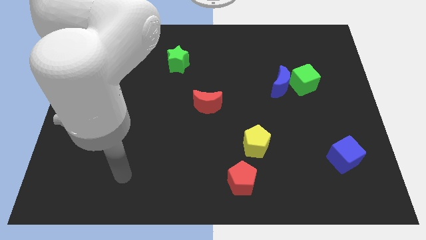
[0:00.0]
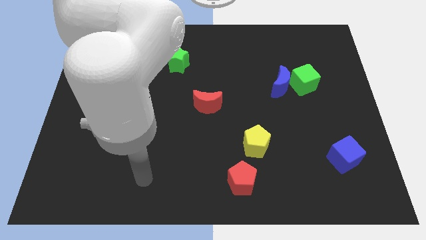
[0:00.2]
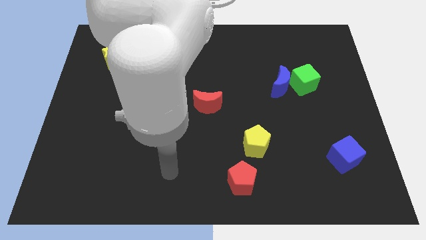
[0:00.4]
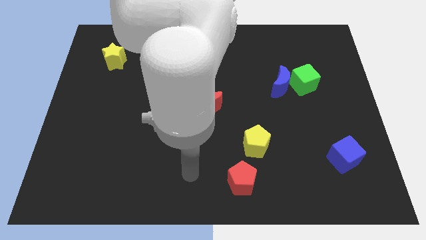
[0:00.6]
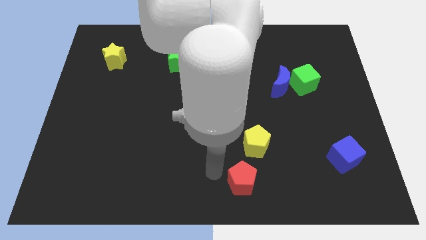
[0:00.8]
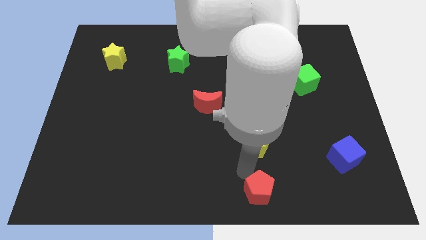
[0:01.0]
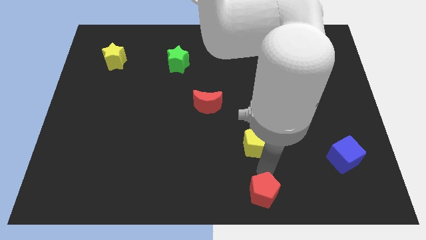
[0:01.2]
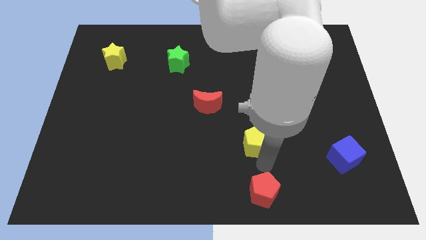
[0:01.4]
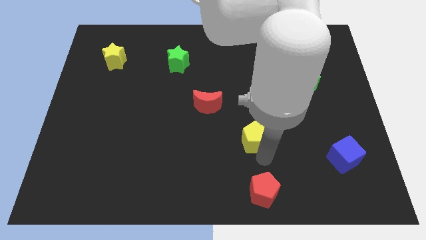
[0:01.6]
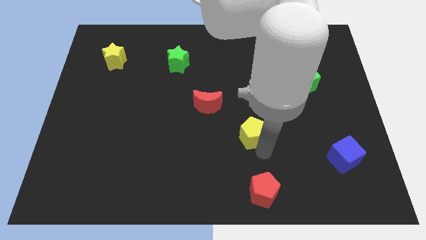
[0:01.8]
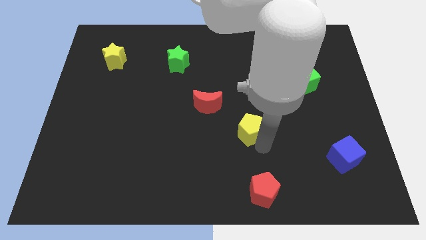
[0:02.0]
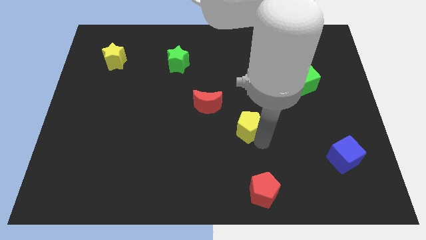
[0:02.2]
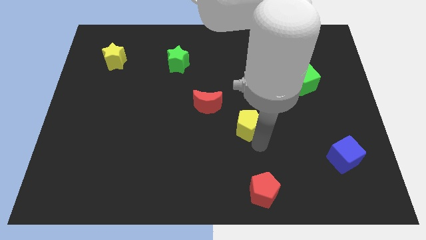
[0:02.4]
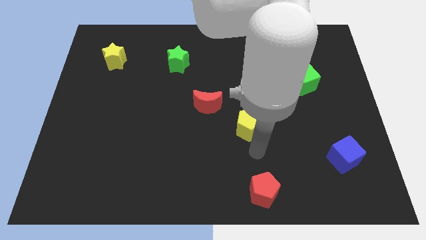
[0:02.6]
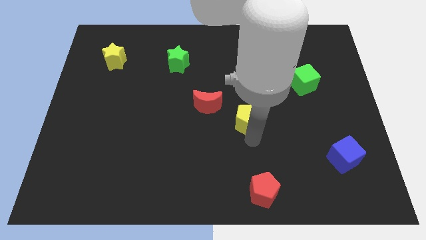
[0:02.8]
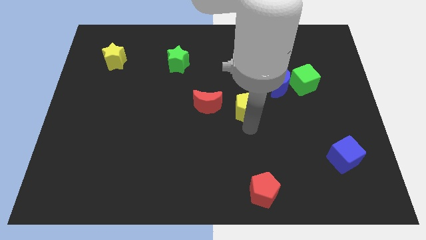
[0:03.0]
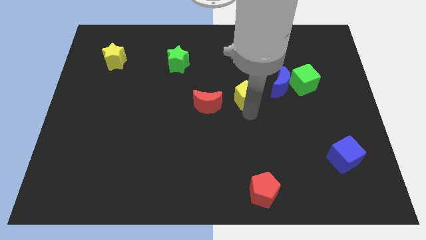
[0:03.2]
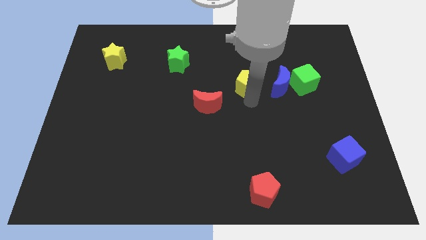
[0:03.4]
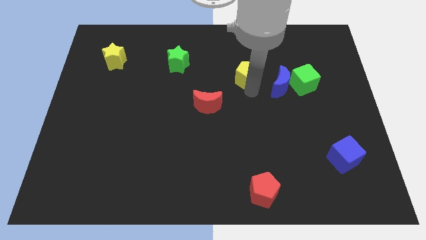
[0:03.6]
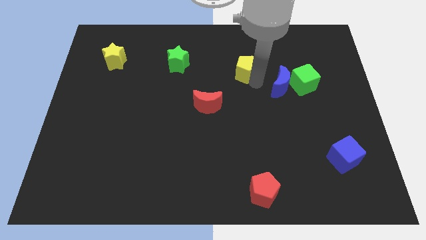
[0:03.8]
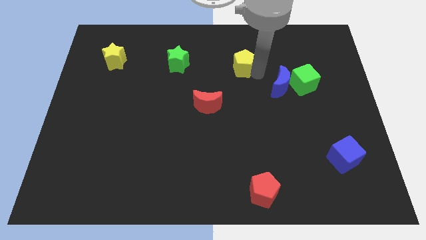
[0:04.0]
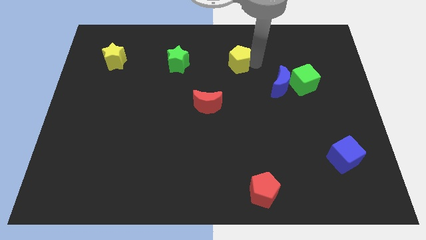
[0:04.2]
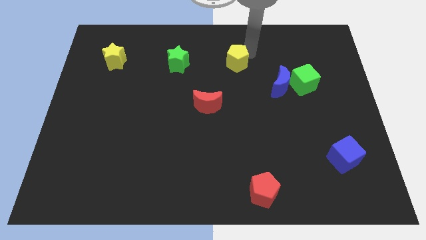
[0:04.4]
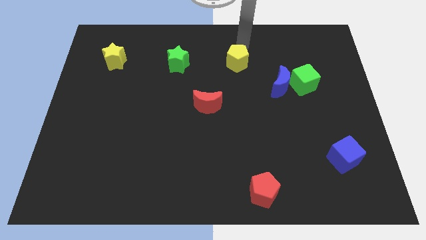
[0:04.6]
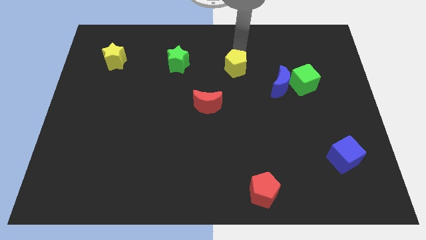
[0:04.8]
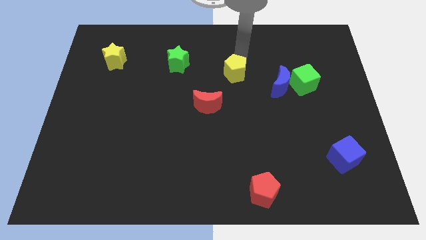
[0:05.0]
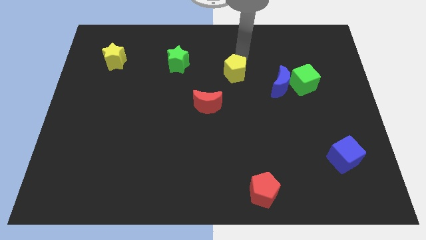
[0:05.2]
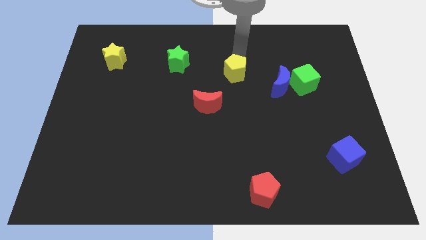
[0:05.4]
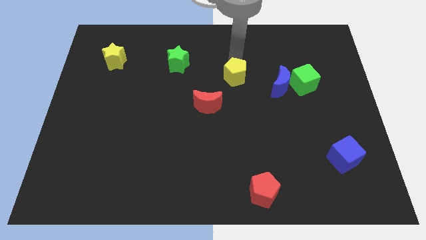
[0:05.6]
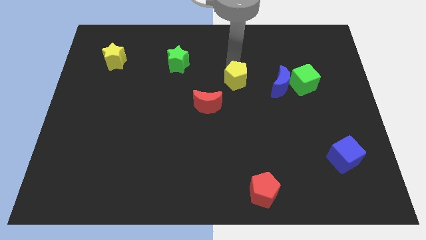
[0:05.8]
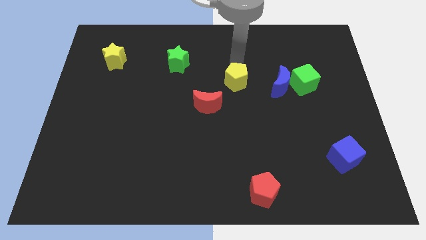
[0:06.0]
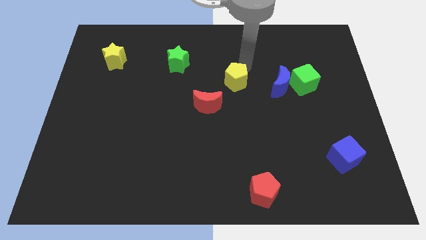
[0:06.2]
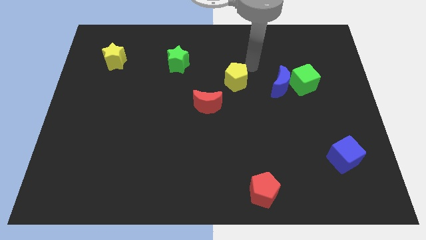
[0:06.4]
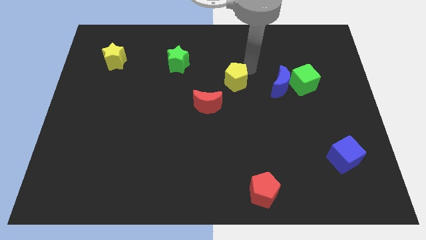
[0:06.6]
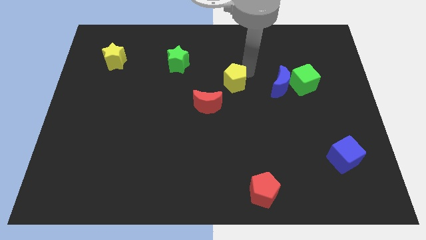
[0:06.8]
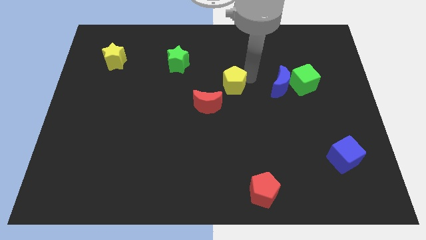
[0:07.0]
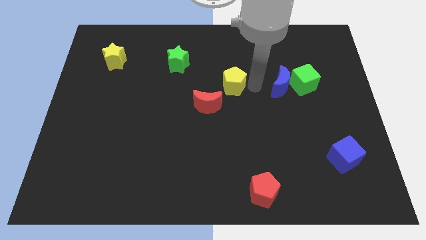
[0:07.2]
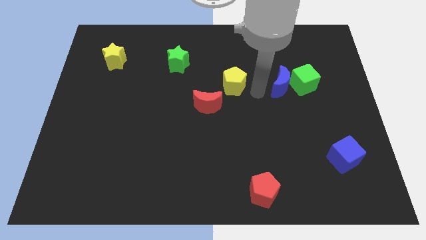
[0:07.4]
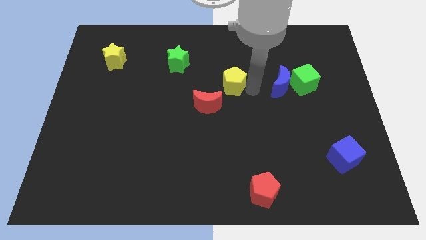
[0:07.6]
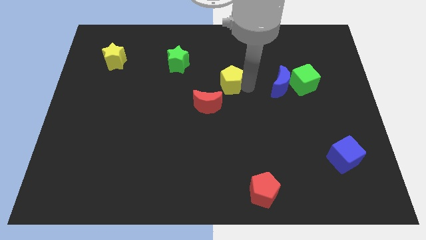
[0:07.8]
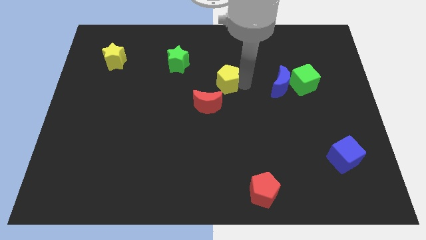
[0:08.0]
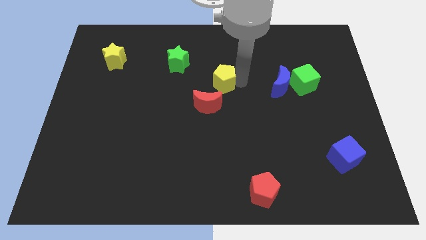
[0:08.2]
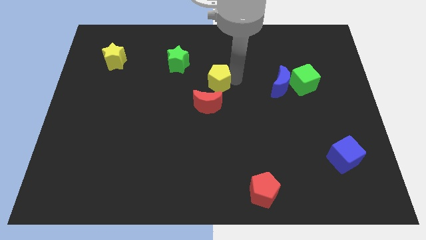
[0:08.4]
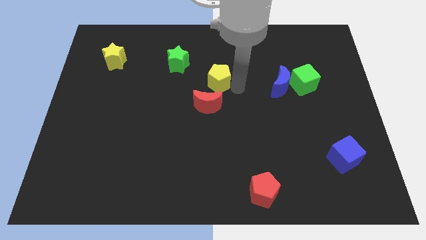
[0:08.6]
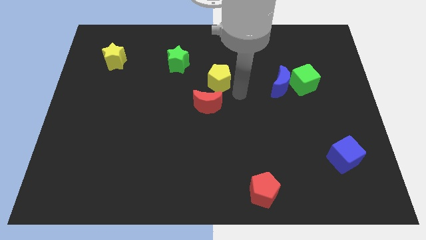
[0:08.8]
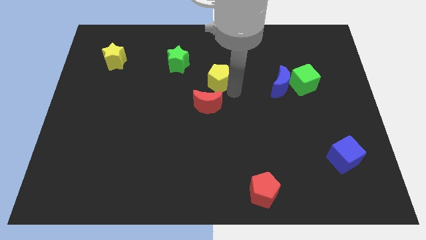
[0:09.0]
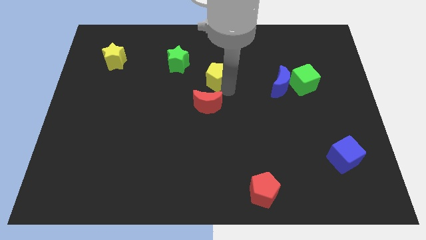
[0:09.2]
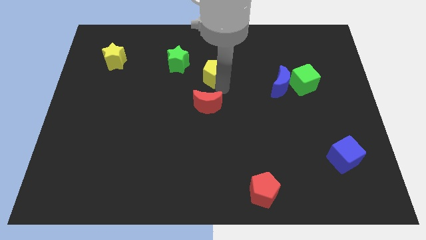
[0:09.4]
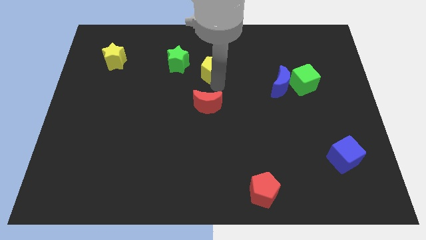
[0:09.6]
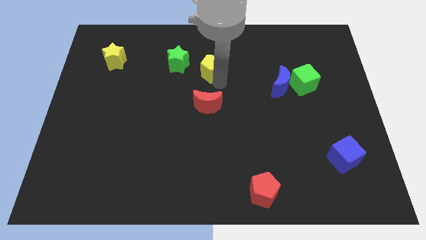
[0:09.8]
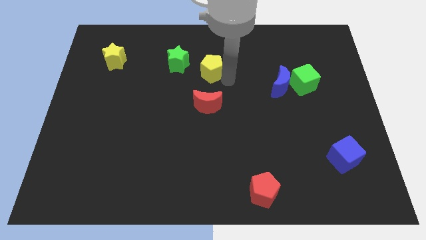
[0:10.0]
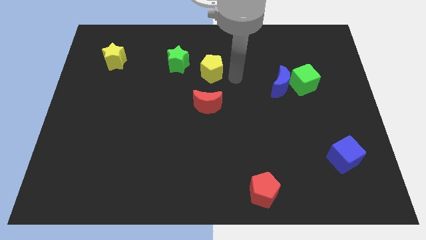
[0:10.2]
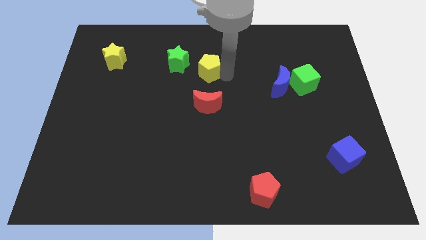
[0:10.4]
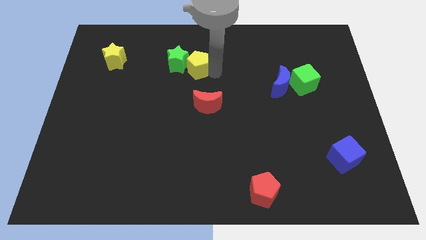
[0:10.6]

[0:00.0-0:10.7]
slide the yellow pentagon next to the green star

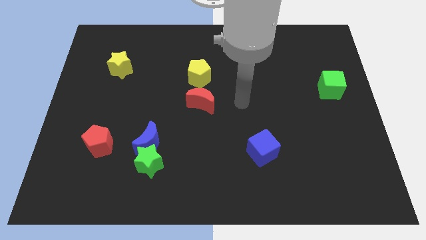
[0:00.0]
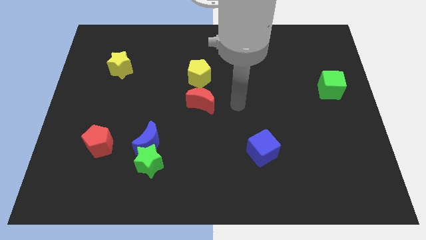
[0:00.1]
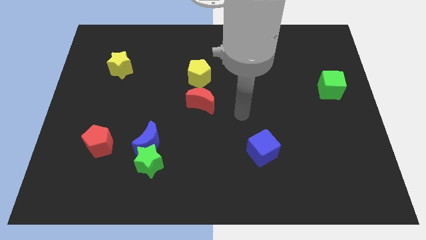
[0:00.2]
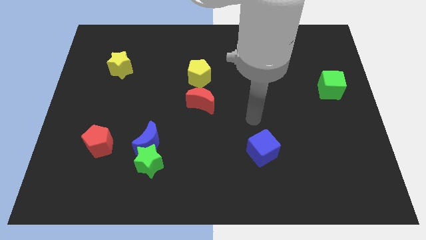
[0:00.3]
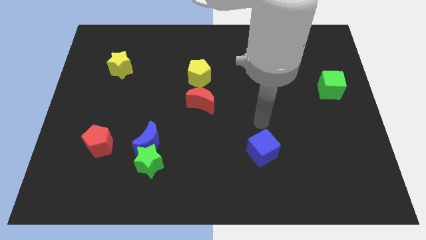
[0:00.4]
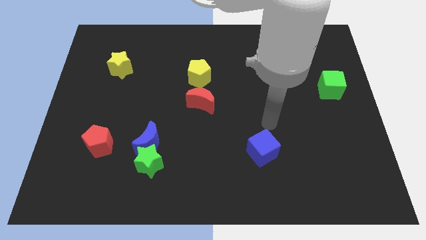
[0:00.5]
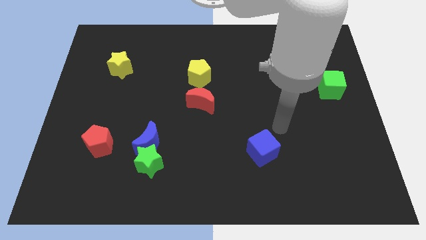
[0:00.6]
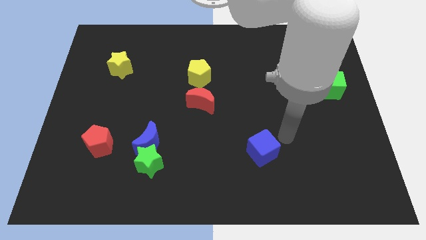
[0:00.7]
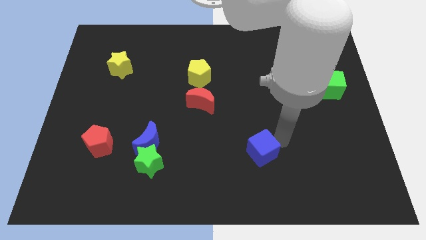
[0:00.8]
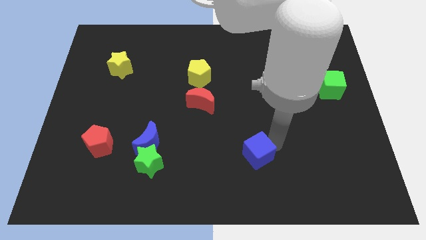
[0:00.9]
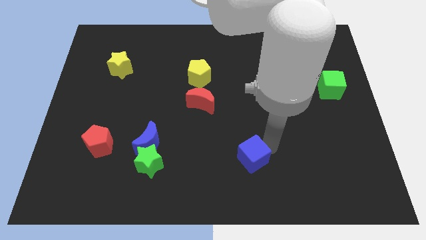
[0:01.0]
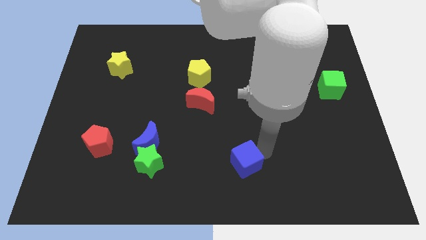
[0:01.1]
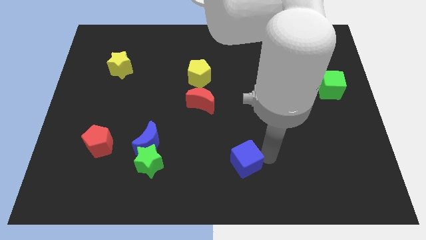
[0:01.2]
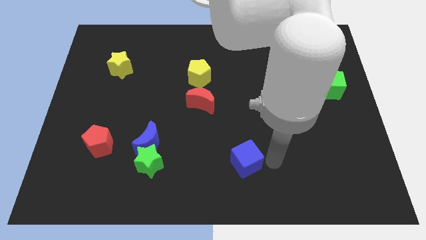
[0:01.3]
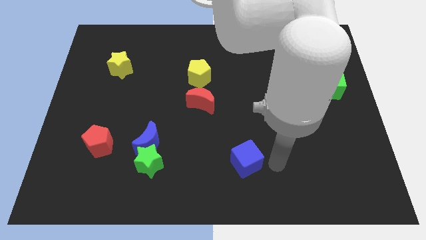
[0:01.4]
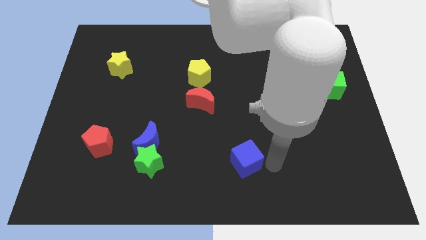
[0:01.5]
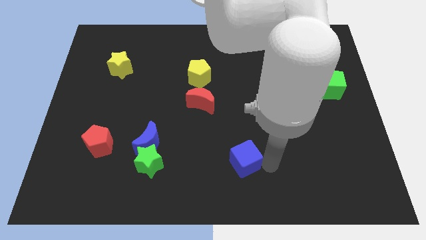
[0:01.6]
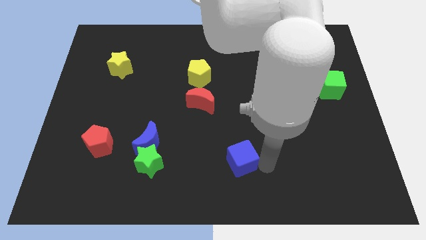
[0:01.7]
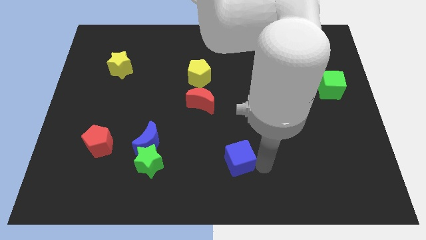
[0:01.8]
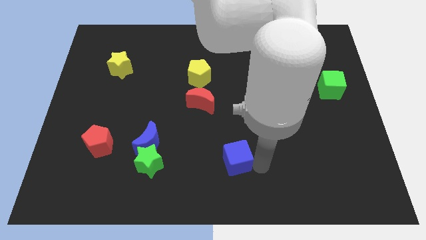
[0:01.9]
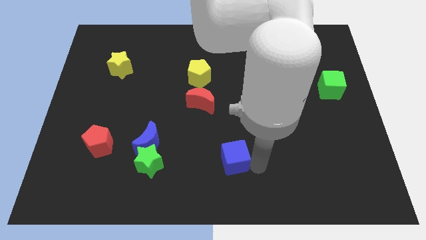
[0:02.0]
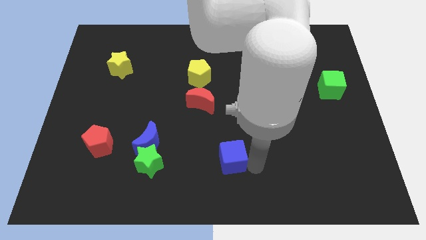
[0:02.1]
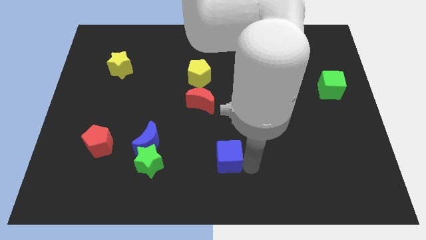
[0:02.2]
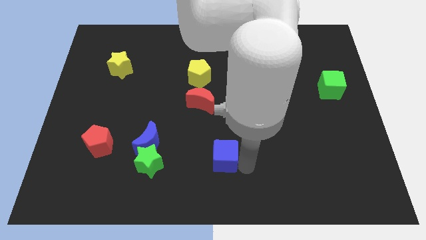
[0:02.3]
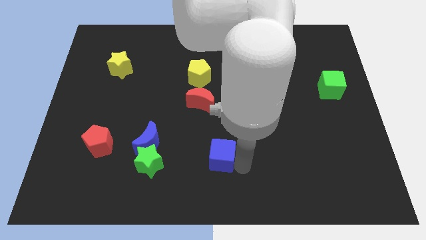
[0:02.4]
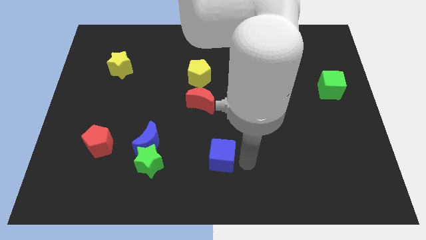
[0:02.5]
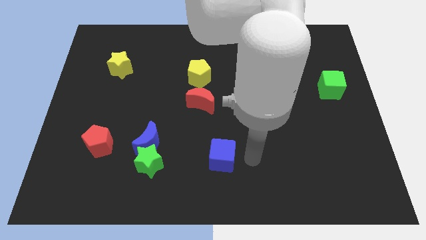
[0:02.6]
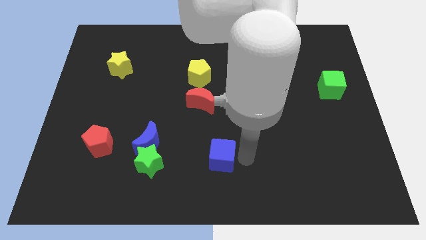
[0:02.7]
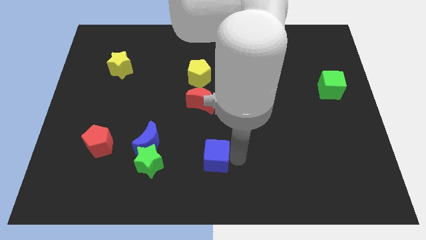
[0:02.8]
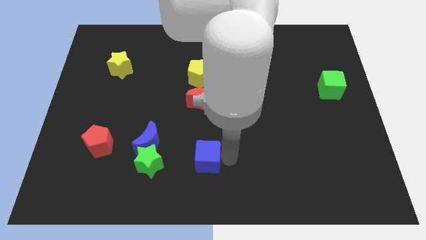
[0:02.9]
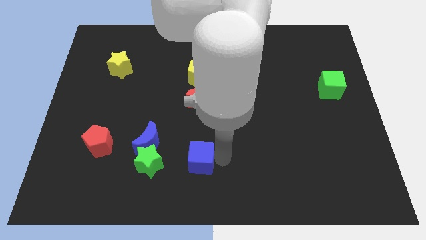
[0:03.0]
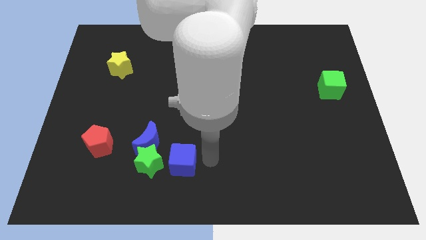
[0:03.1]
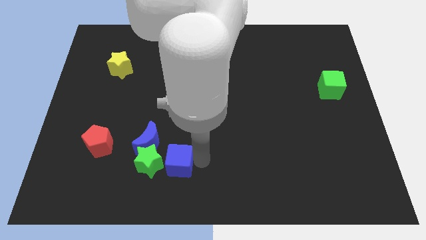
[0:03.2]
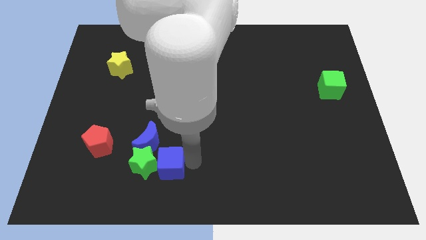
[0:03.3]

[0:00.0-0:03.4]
push the blue cube to the green star
